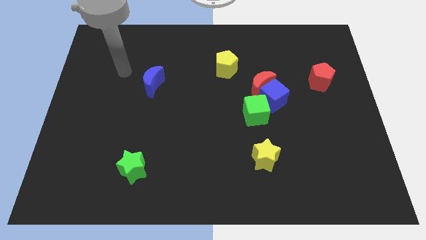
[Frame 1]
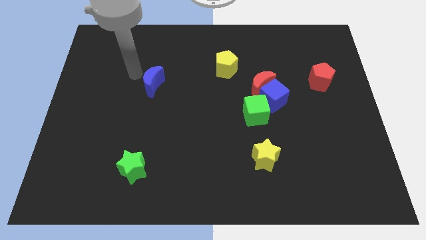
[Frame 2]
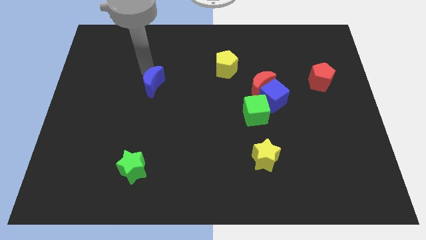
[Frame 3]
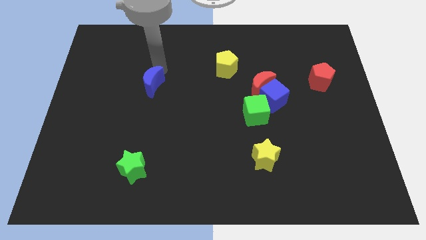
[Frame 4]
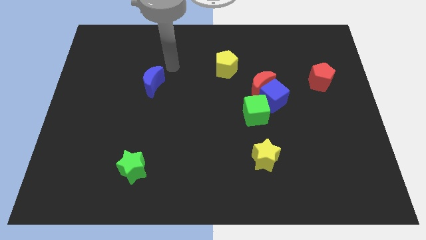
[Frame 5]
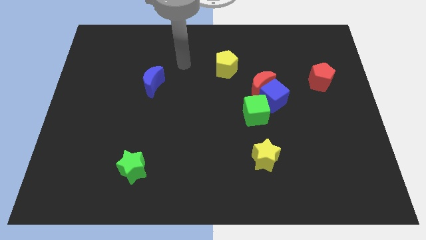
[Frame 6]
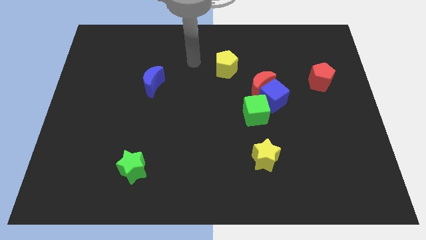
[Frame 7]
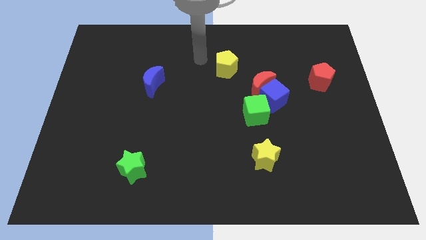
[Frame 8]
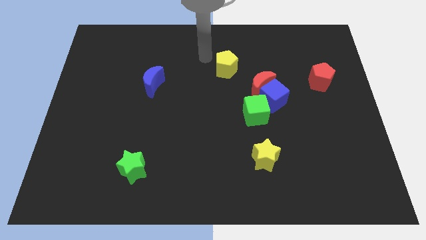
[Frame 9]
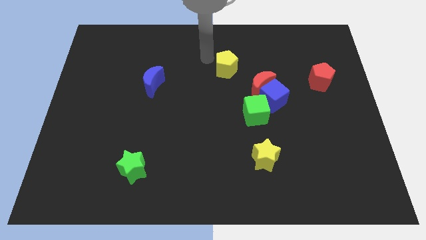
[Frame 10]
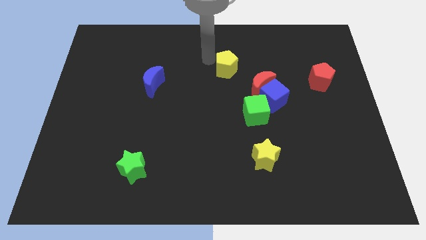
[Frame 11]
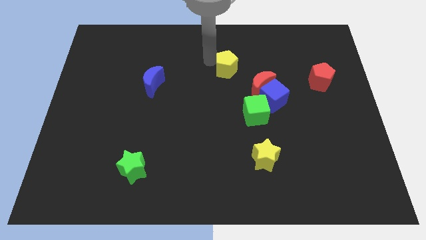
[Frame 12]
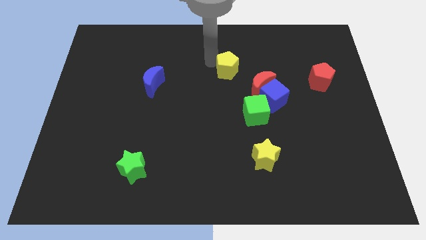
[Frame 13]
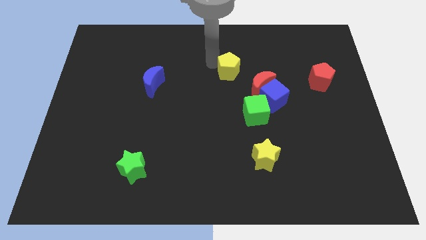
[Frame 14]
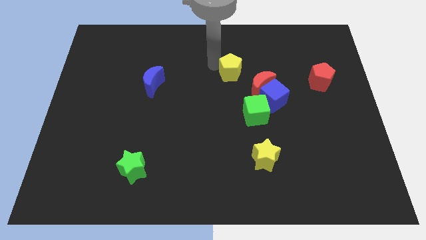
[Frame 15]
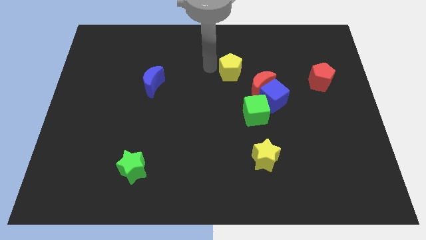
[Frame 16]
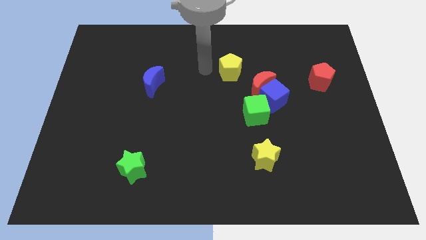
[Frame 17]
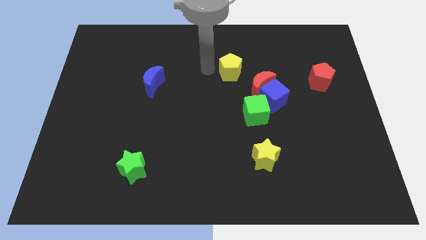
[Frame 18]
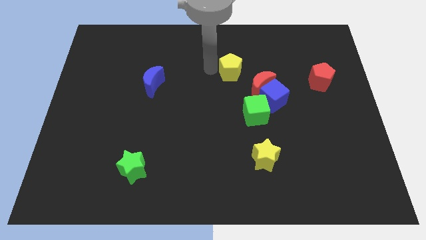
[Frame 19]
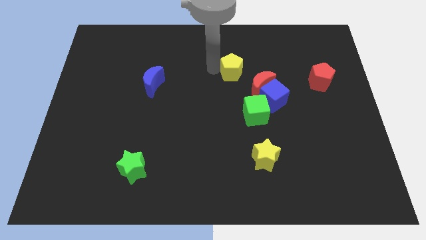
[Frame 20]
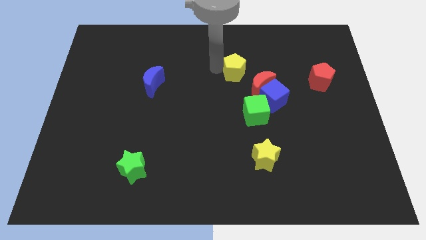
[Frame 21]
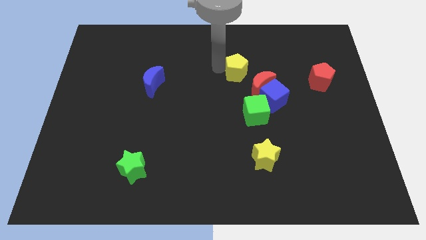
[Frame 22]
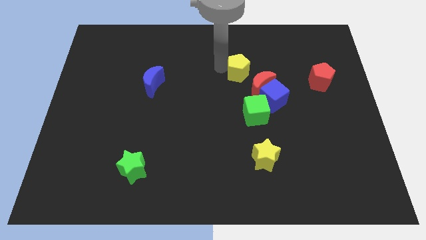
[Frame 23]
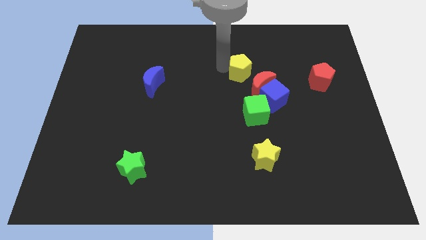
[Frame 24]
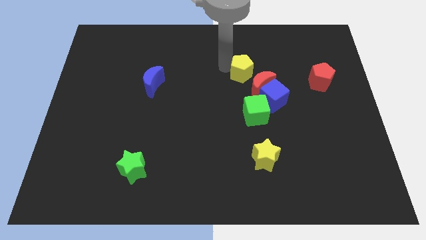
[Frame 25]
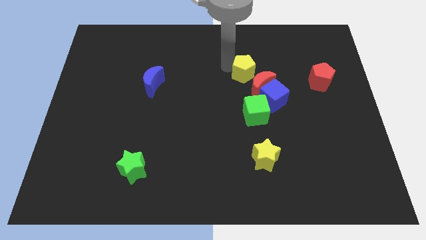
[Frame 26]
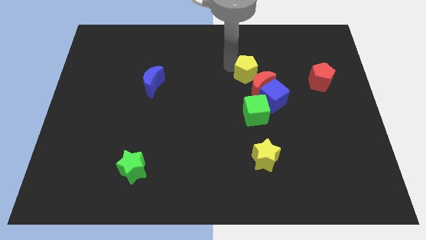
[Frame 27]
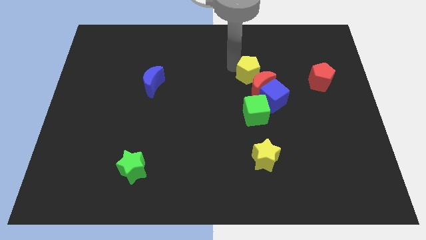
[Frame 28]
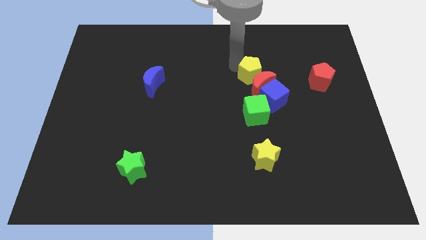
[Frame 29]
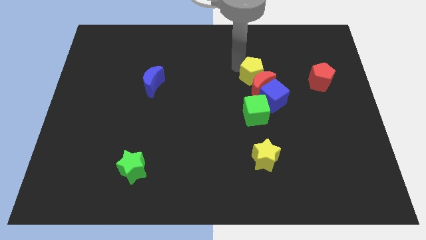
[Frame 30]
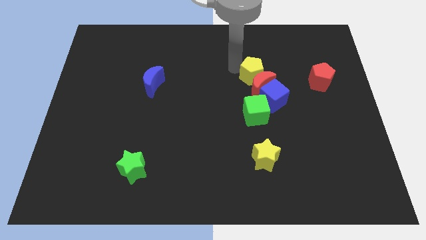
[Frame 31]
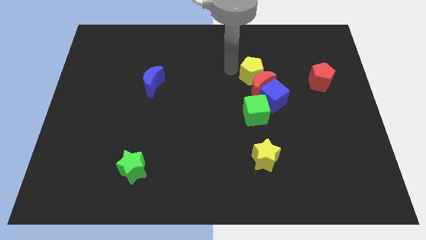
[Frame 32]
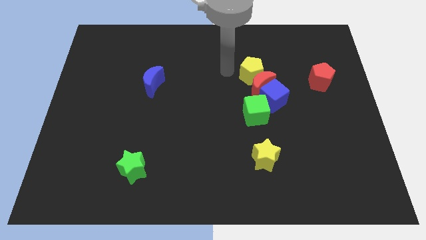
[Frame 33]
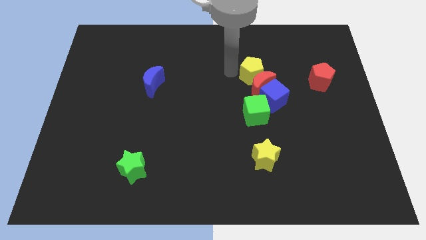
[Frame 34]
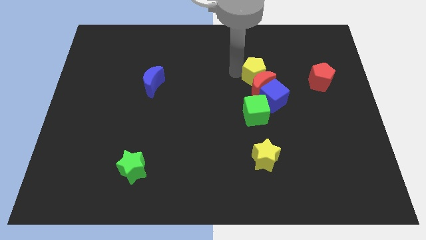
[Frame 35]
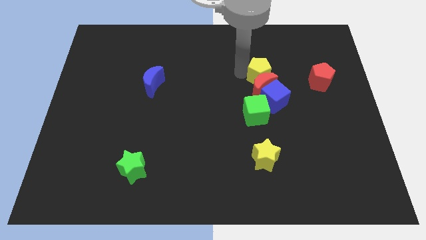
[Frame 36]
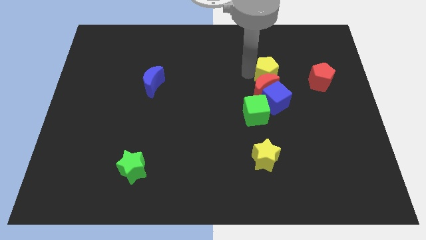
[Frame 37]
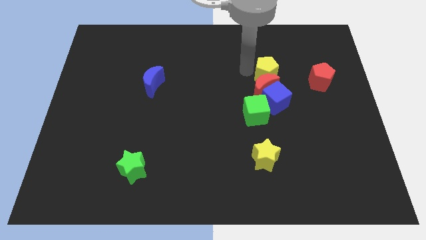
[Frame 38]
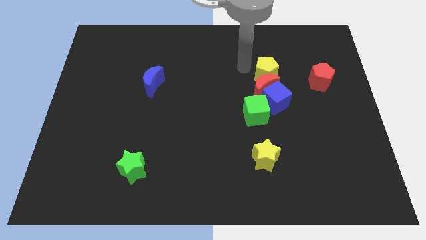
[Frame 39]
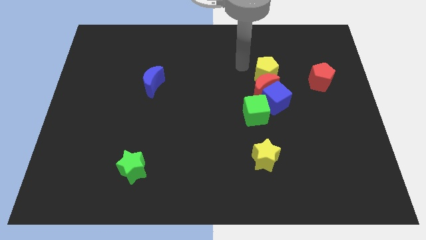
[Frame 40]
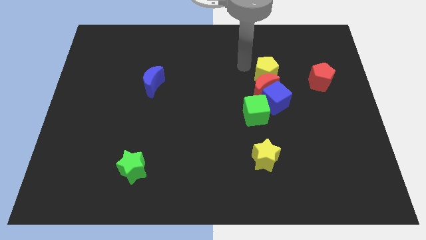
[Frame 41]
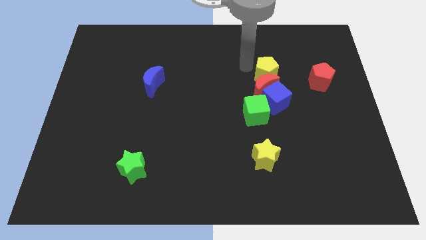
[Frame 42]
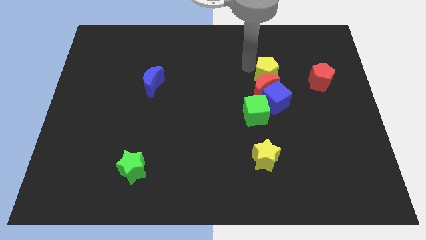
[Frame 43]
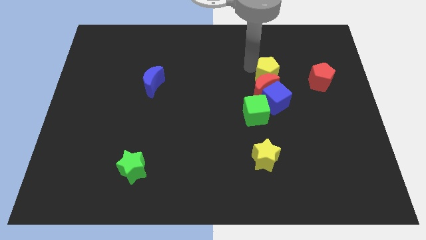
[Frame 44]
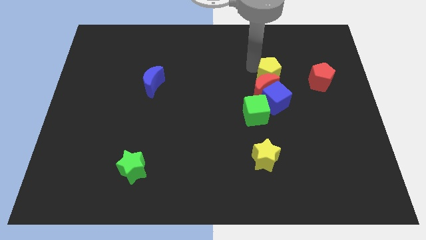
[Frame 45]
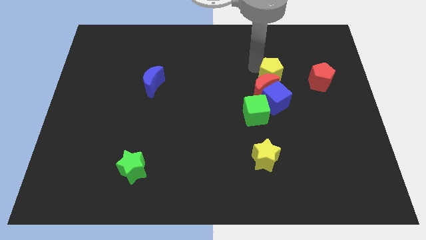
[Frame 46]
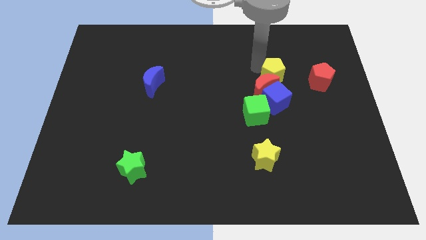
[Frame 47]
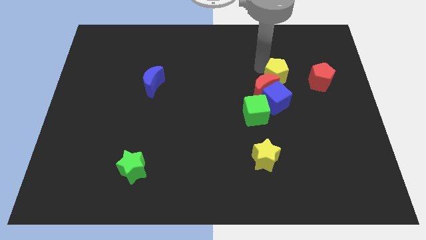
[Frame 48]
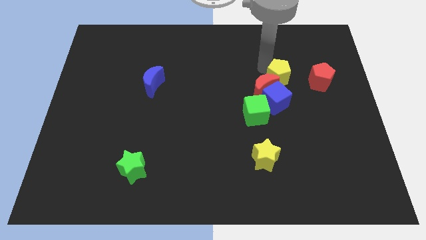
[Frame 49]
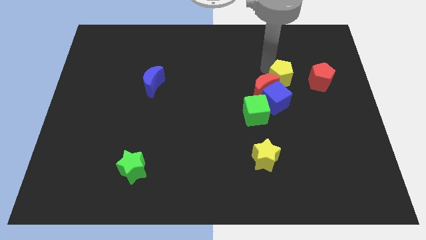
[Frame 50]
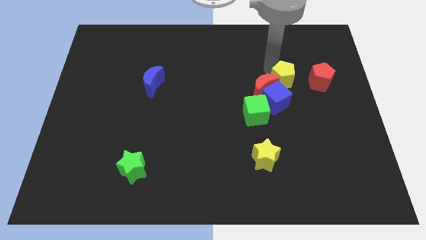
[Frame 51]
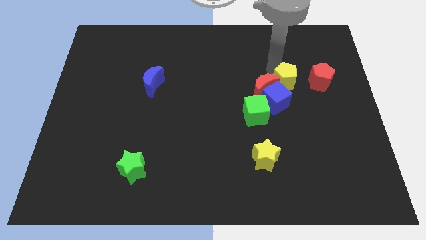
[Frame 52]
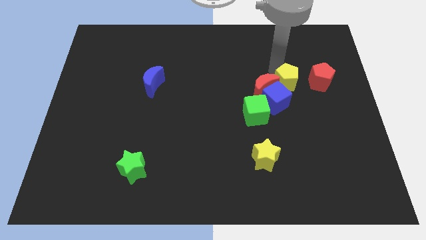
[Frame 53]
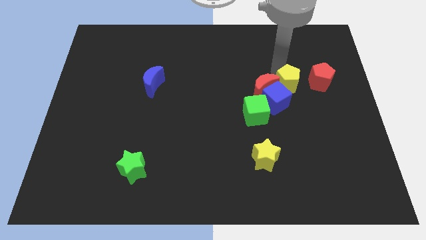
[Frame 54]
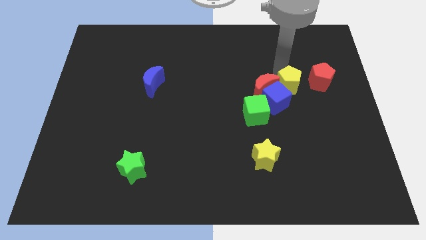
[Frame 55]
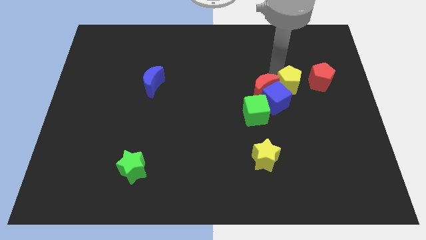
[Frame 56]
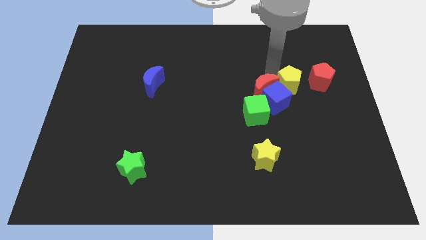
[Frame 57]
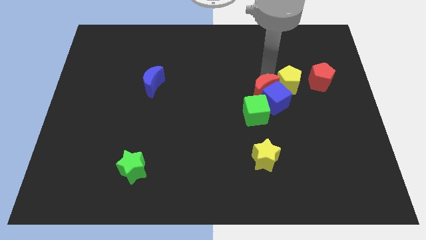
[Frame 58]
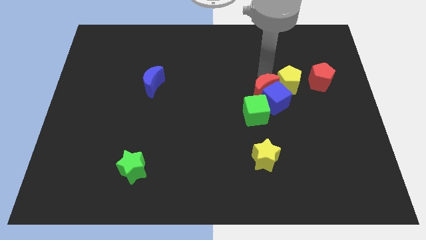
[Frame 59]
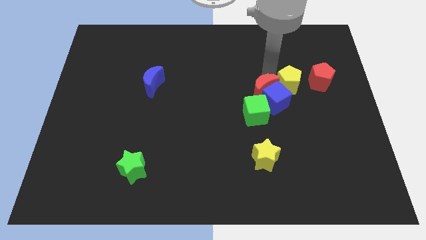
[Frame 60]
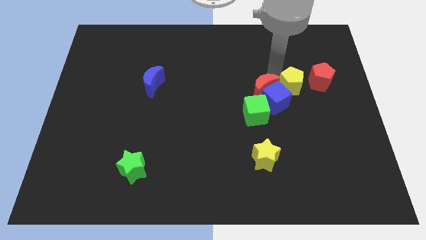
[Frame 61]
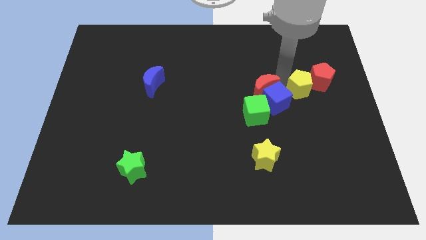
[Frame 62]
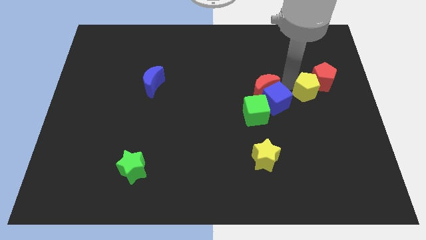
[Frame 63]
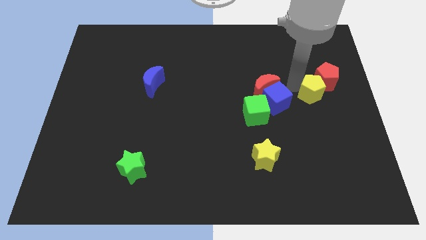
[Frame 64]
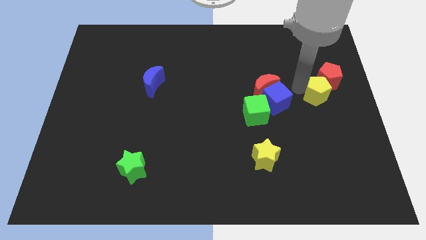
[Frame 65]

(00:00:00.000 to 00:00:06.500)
move the yellow pentagon to the right side of the board
